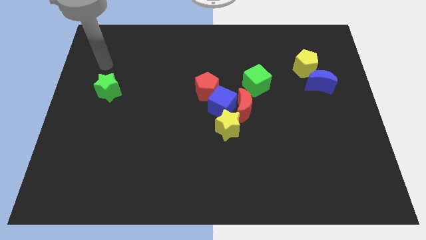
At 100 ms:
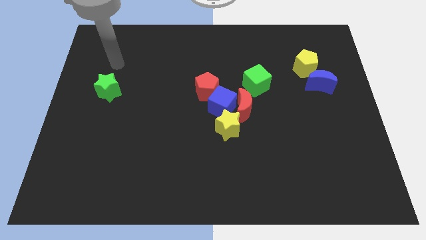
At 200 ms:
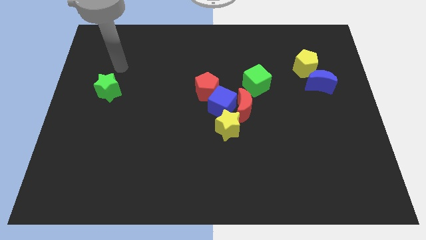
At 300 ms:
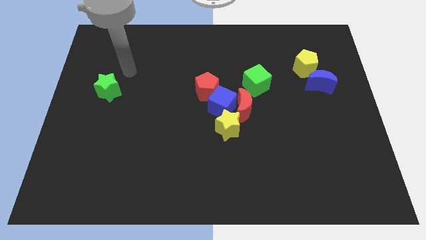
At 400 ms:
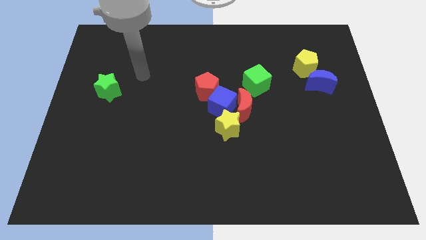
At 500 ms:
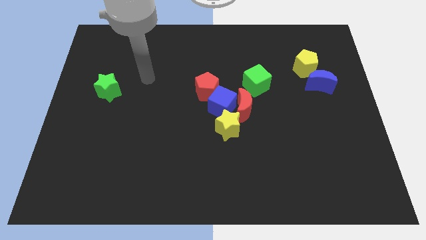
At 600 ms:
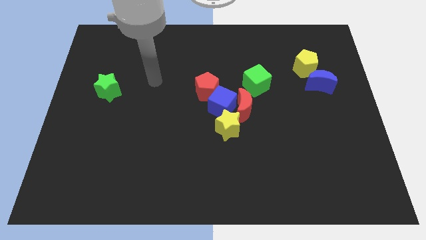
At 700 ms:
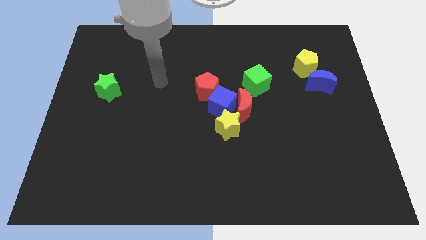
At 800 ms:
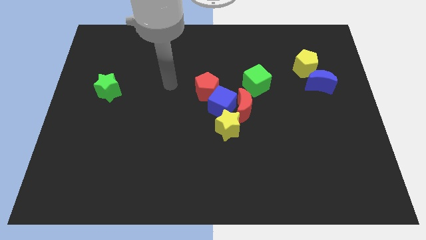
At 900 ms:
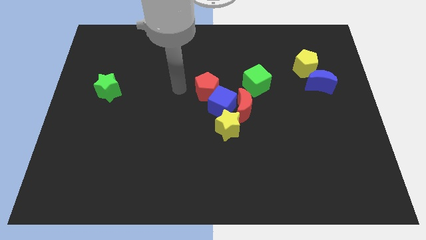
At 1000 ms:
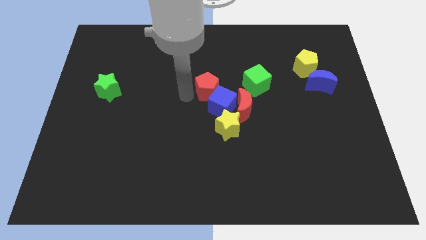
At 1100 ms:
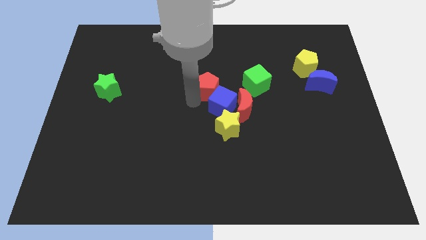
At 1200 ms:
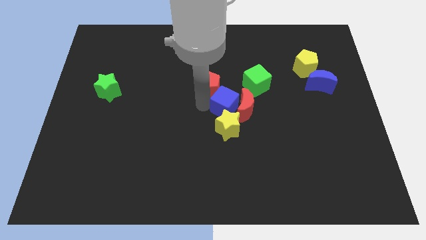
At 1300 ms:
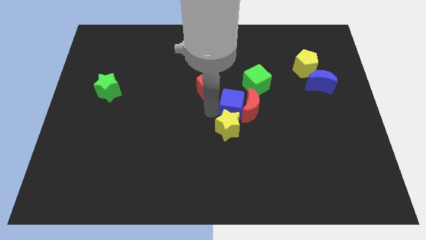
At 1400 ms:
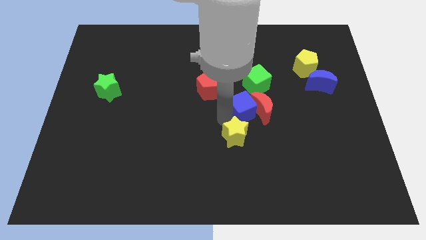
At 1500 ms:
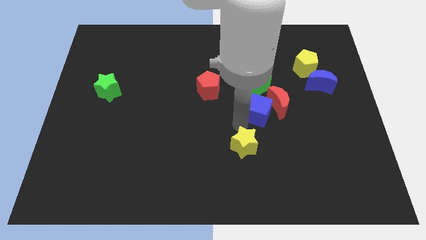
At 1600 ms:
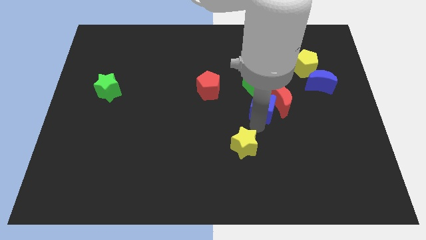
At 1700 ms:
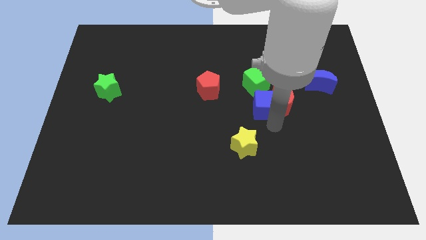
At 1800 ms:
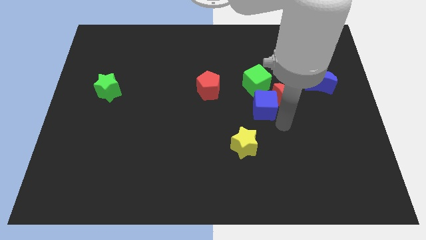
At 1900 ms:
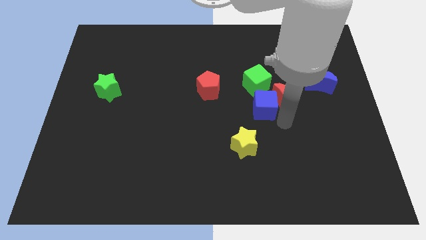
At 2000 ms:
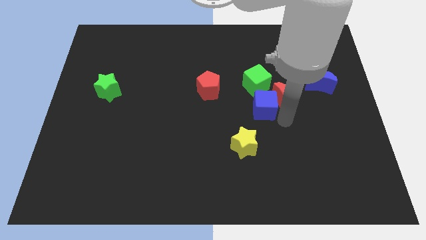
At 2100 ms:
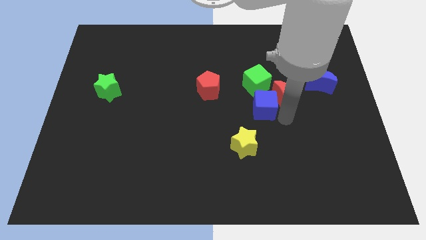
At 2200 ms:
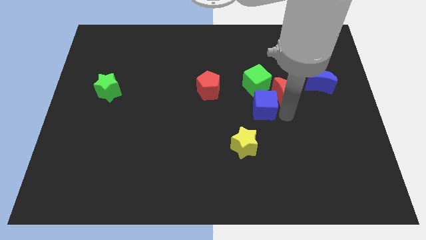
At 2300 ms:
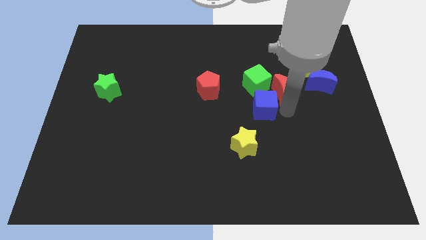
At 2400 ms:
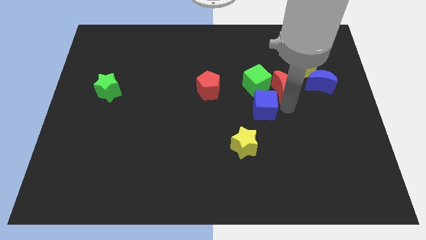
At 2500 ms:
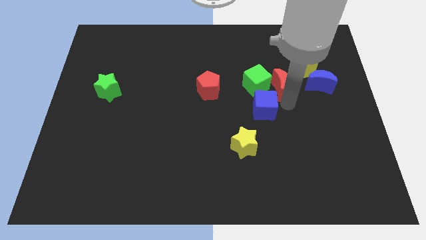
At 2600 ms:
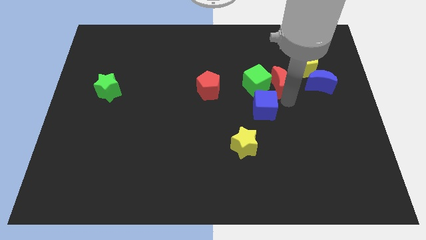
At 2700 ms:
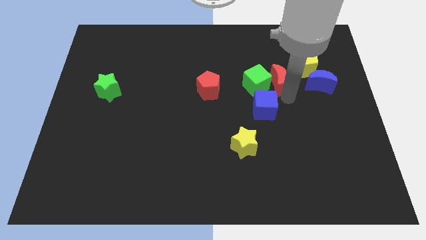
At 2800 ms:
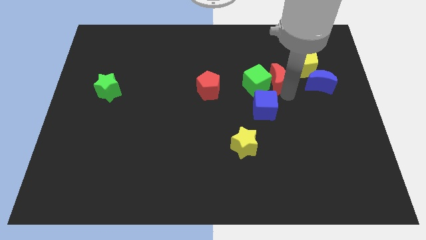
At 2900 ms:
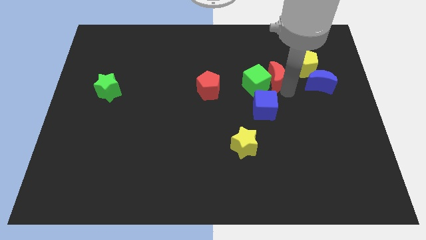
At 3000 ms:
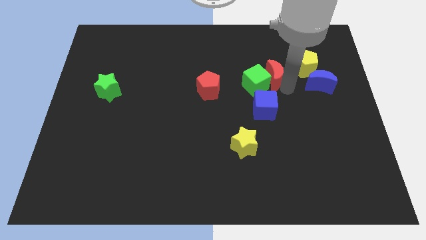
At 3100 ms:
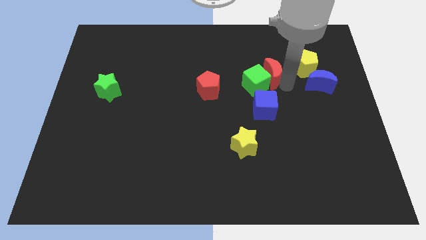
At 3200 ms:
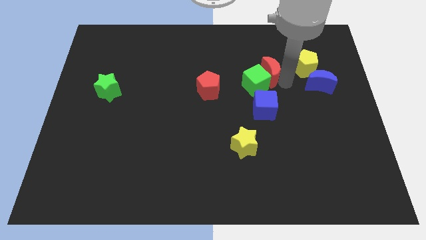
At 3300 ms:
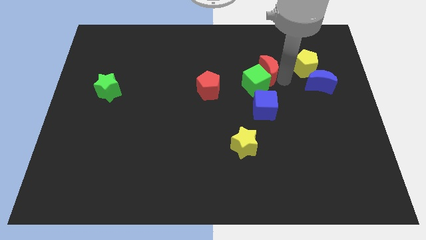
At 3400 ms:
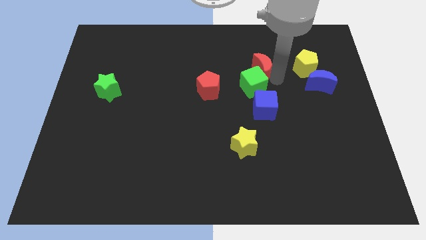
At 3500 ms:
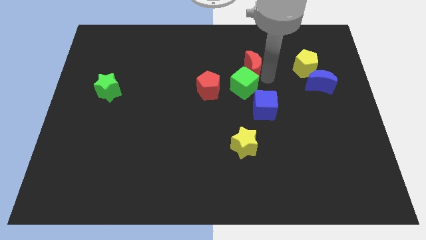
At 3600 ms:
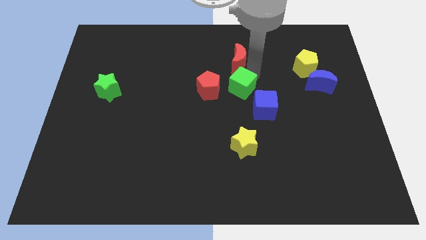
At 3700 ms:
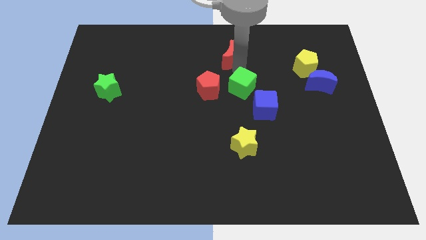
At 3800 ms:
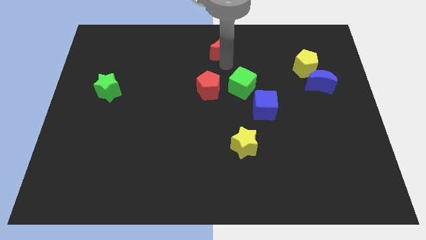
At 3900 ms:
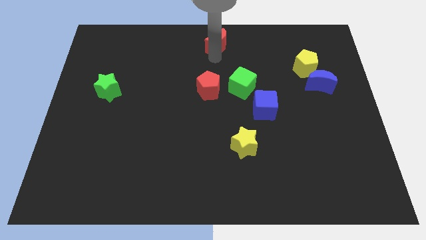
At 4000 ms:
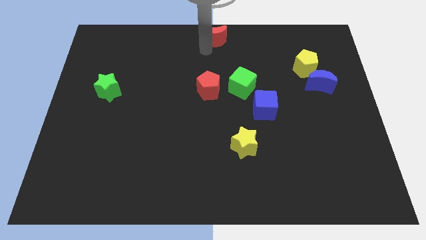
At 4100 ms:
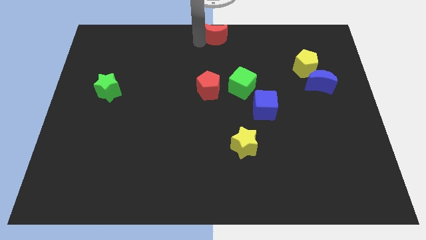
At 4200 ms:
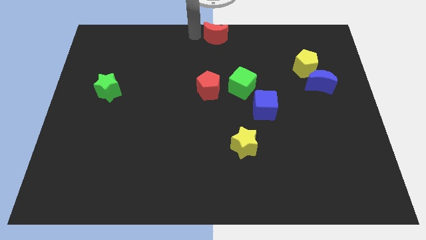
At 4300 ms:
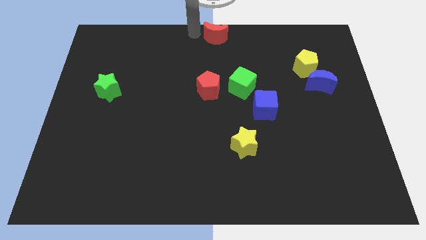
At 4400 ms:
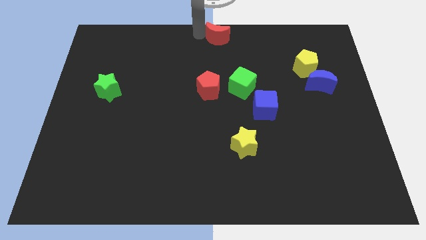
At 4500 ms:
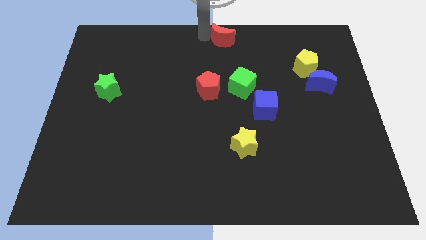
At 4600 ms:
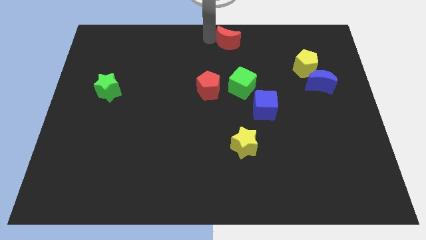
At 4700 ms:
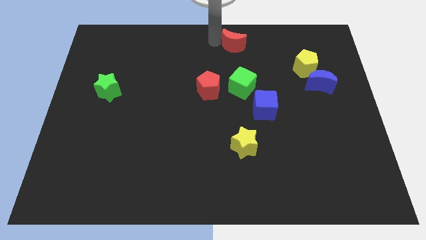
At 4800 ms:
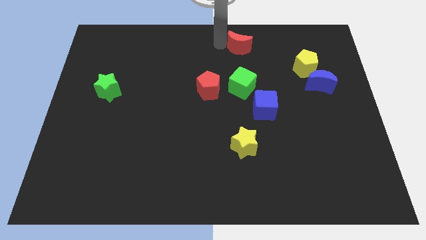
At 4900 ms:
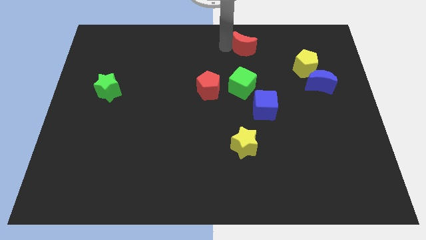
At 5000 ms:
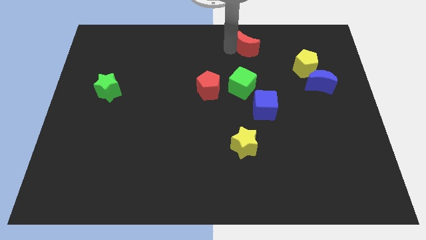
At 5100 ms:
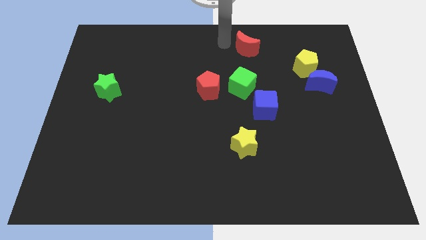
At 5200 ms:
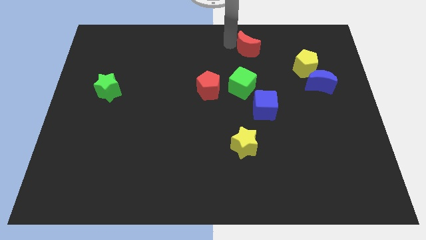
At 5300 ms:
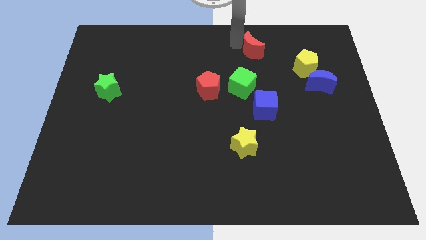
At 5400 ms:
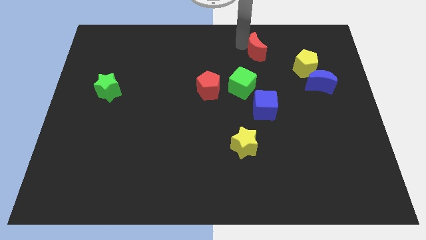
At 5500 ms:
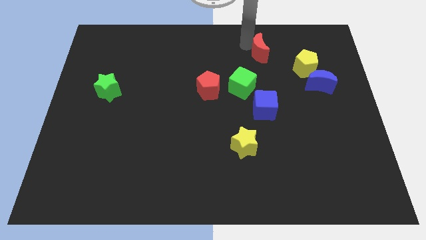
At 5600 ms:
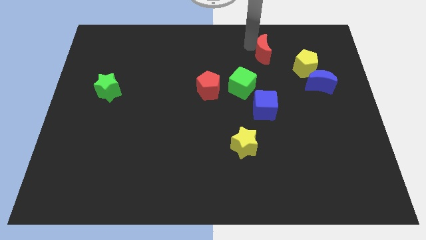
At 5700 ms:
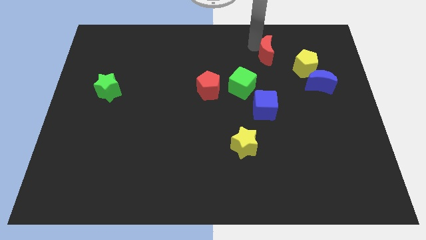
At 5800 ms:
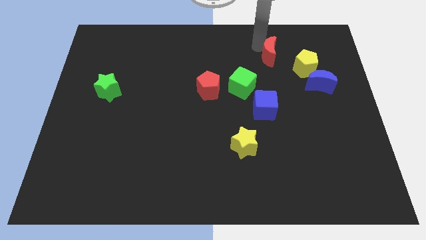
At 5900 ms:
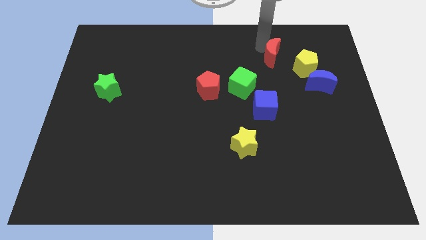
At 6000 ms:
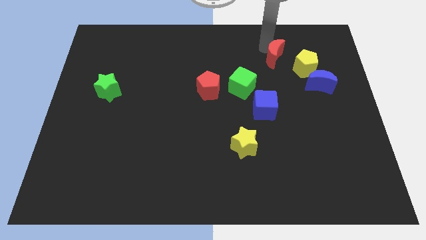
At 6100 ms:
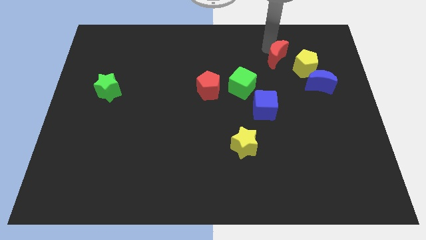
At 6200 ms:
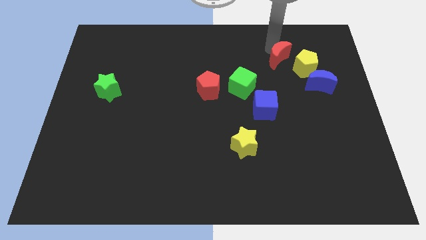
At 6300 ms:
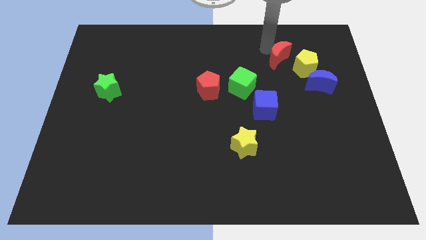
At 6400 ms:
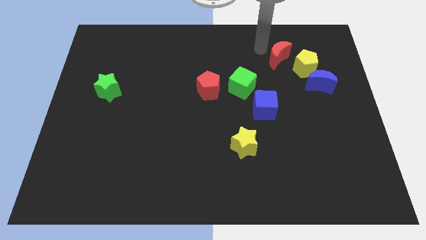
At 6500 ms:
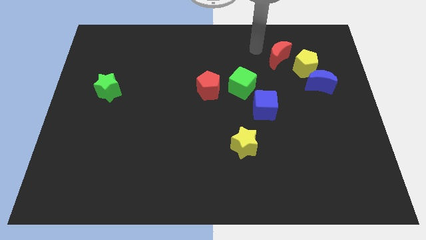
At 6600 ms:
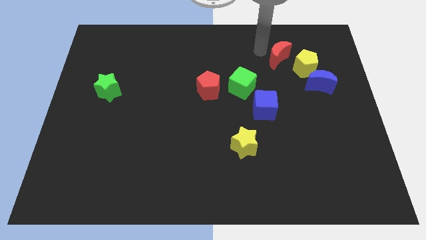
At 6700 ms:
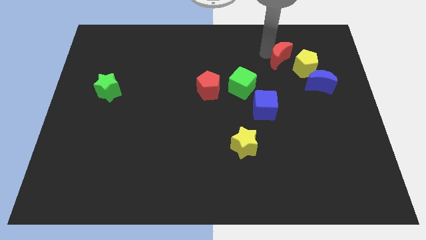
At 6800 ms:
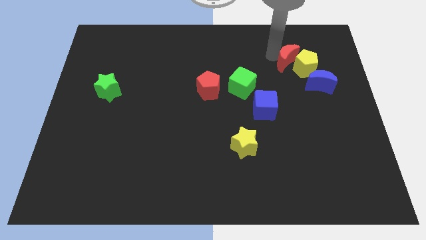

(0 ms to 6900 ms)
push the red moon towards the yellow pentagon
